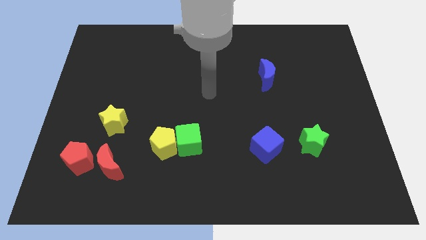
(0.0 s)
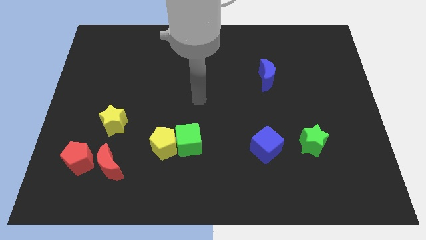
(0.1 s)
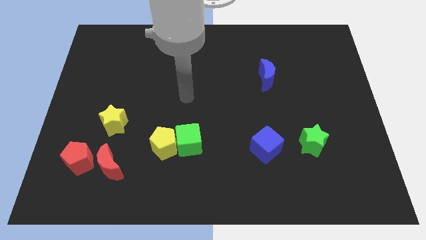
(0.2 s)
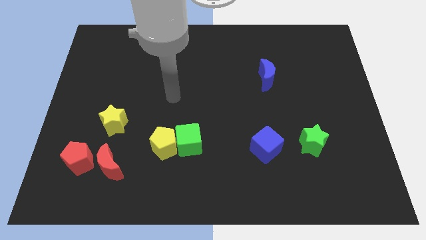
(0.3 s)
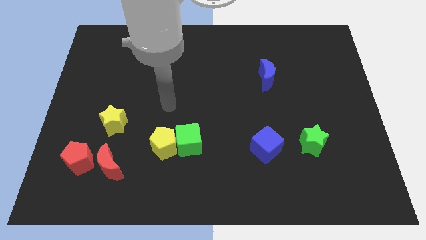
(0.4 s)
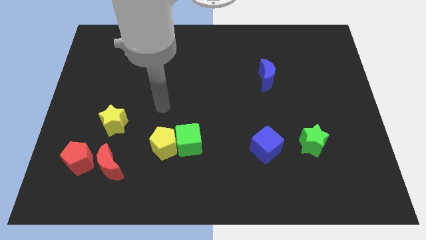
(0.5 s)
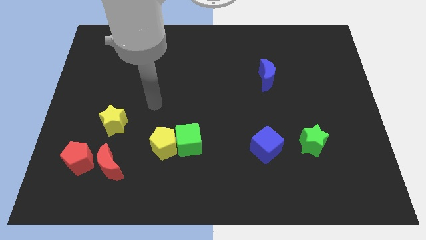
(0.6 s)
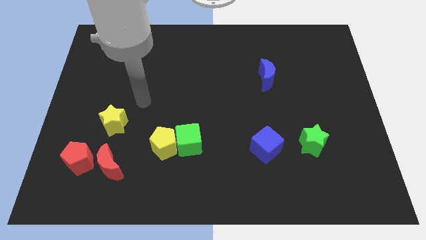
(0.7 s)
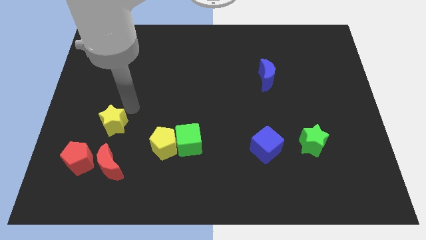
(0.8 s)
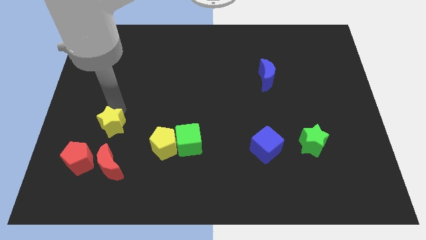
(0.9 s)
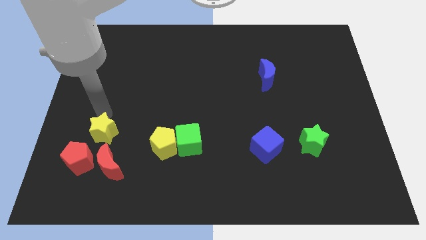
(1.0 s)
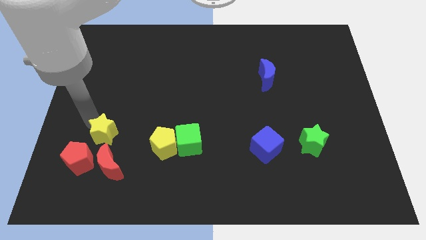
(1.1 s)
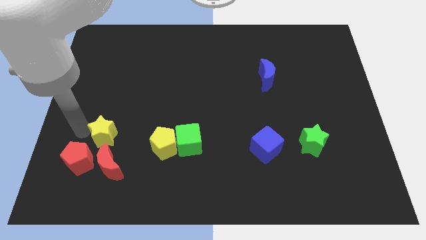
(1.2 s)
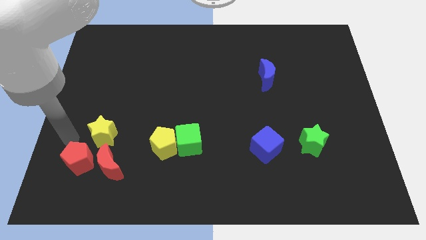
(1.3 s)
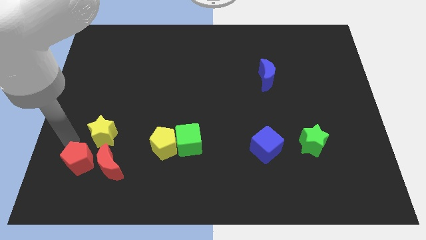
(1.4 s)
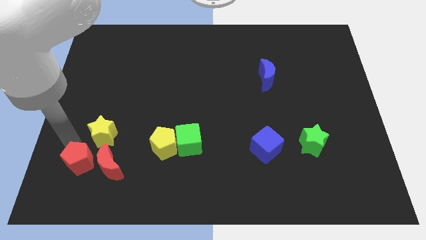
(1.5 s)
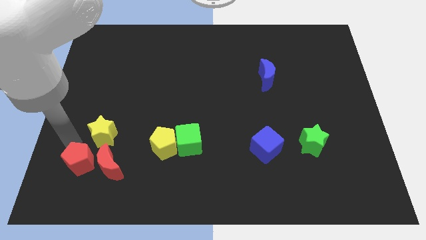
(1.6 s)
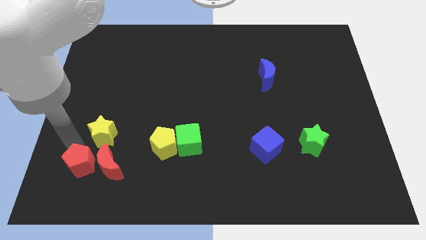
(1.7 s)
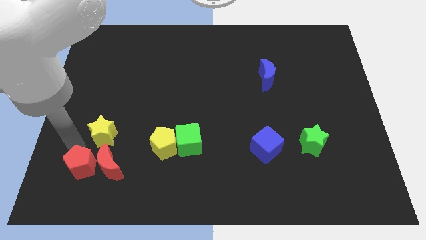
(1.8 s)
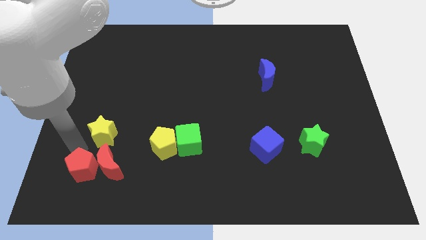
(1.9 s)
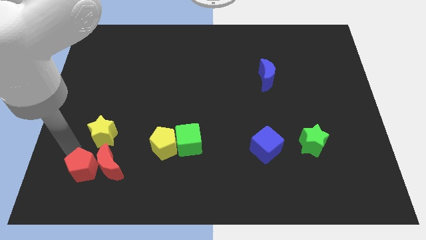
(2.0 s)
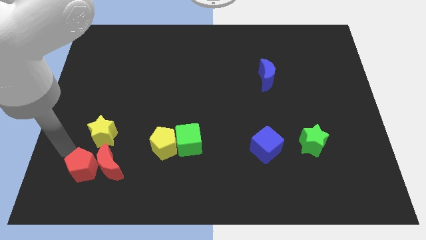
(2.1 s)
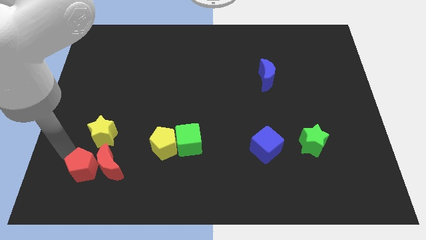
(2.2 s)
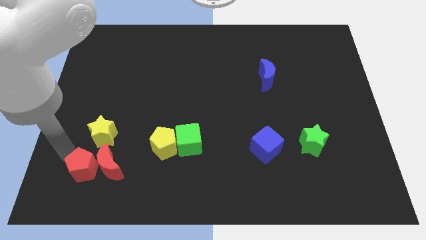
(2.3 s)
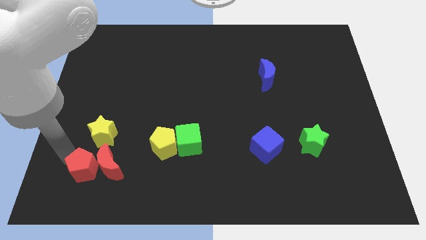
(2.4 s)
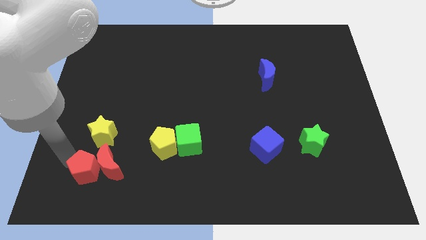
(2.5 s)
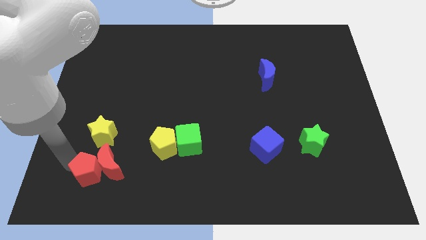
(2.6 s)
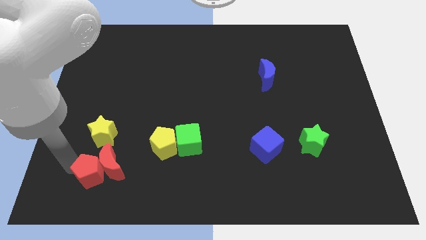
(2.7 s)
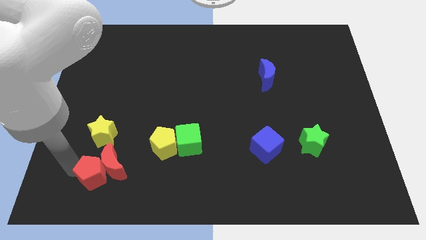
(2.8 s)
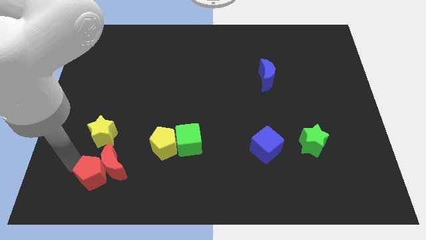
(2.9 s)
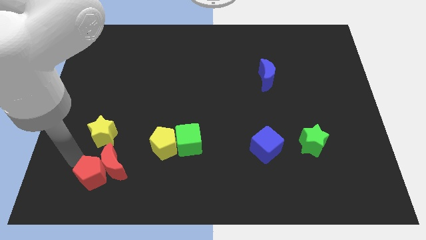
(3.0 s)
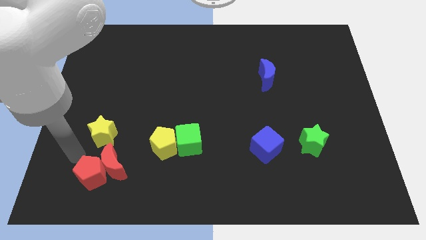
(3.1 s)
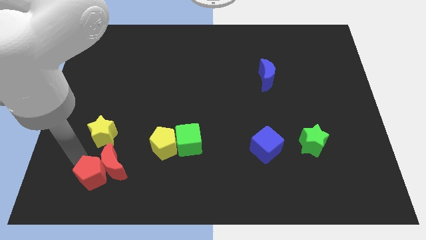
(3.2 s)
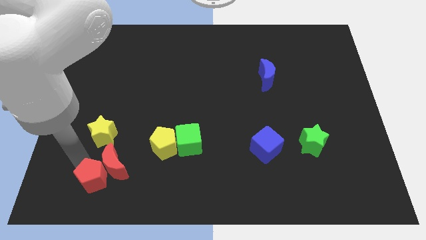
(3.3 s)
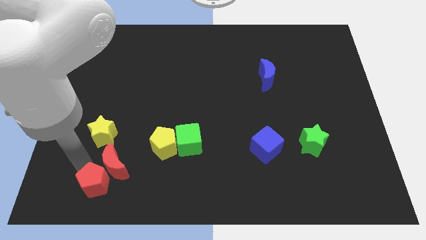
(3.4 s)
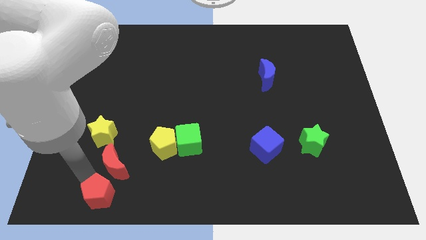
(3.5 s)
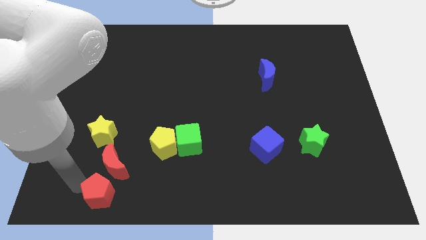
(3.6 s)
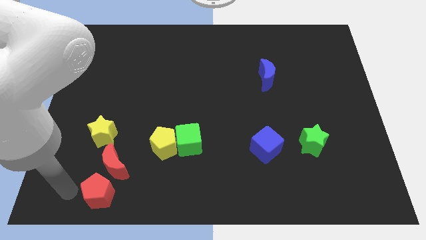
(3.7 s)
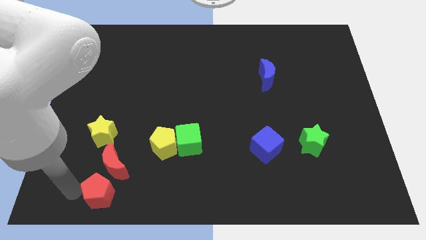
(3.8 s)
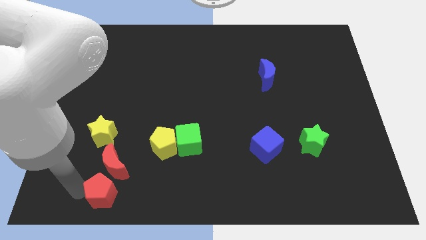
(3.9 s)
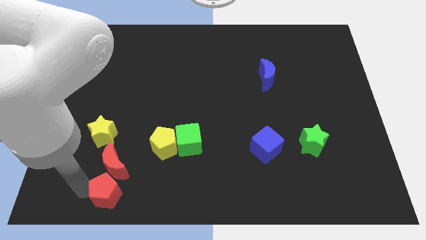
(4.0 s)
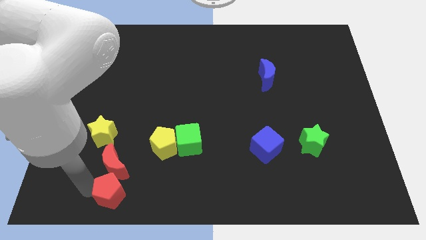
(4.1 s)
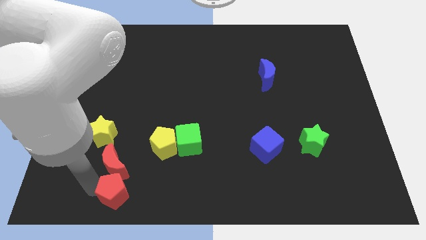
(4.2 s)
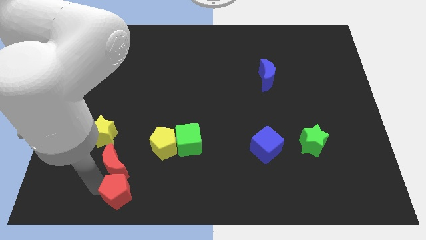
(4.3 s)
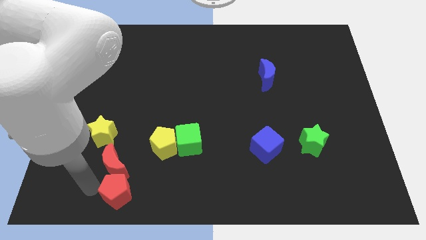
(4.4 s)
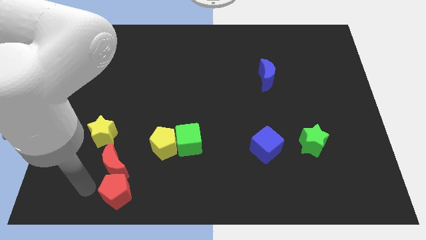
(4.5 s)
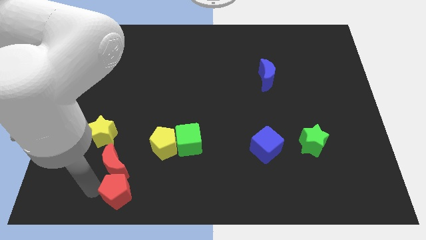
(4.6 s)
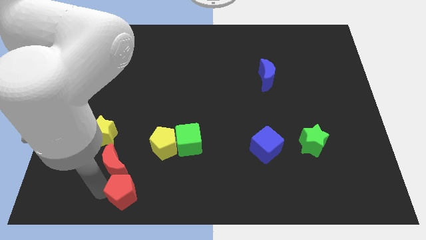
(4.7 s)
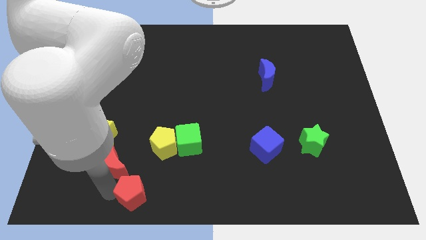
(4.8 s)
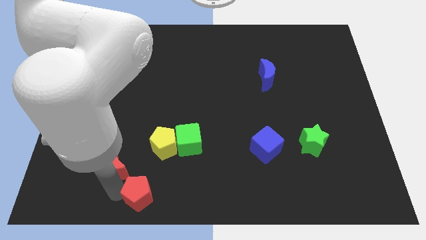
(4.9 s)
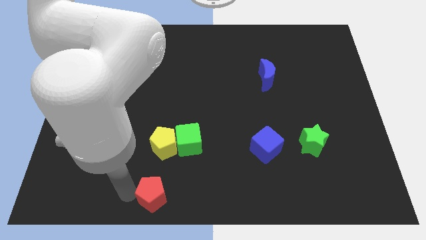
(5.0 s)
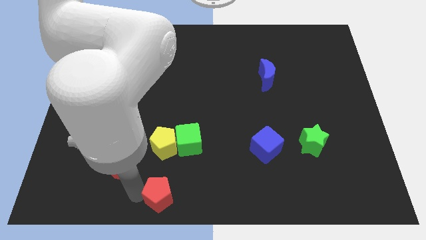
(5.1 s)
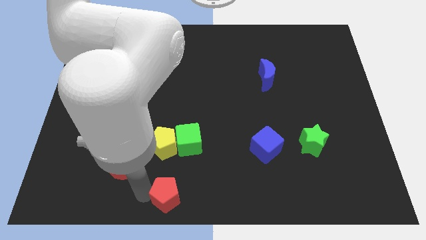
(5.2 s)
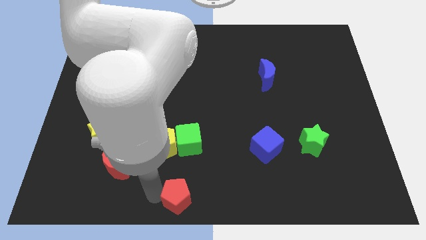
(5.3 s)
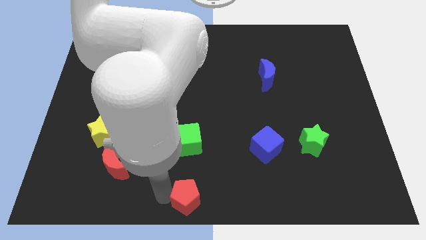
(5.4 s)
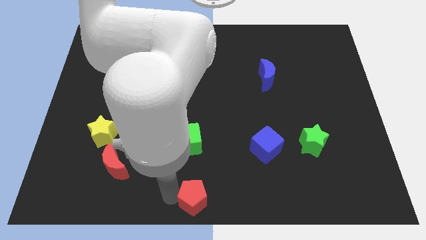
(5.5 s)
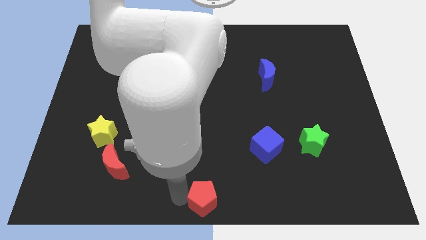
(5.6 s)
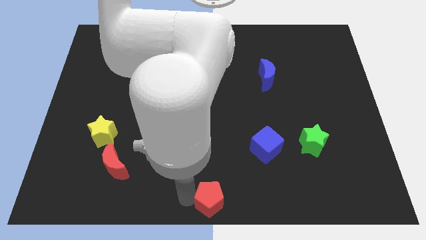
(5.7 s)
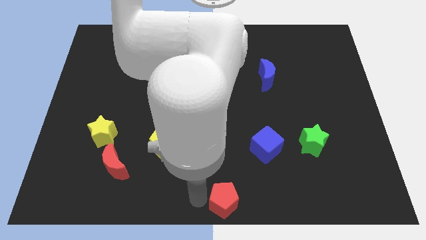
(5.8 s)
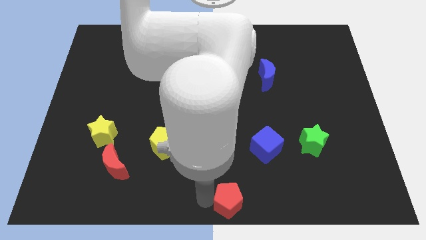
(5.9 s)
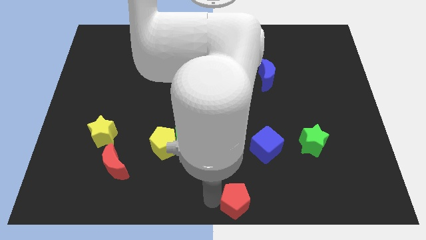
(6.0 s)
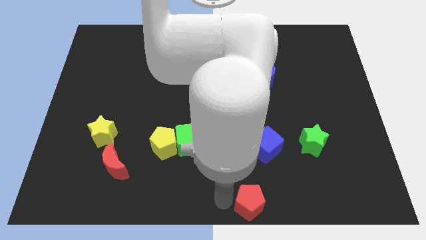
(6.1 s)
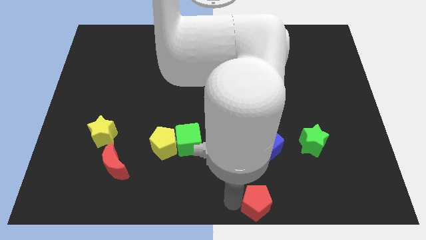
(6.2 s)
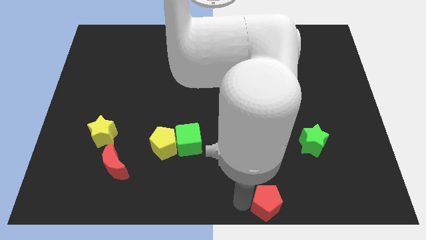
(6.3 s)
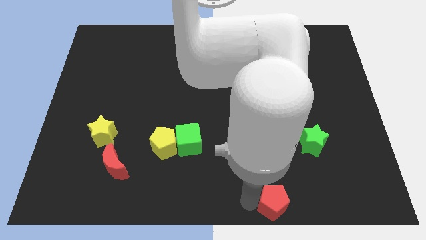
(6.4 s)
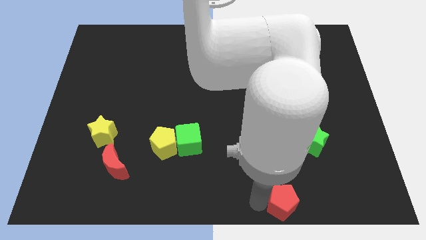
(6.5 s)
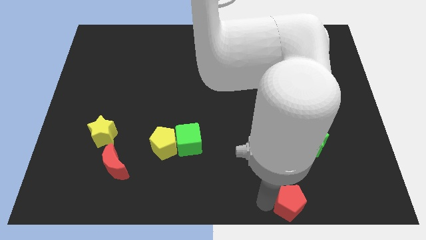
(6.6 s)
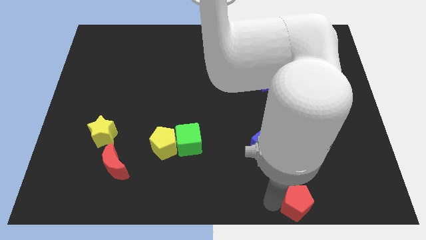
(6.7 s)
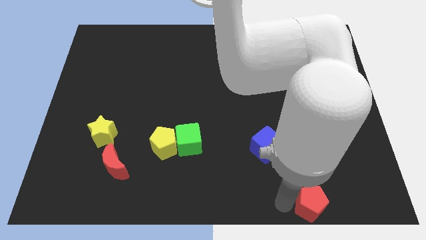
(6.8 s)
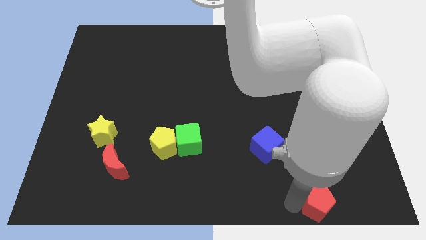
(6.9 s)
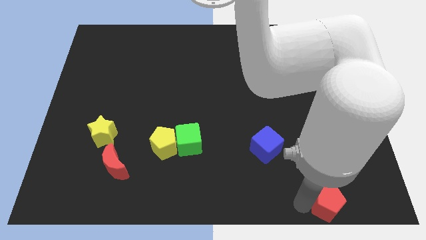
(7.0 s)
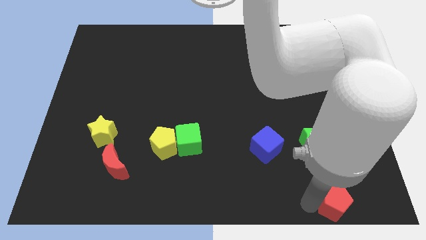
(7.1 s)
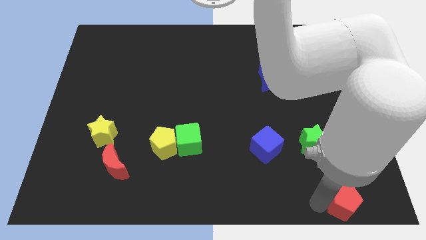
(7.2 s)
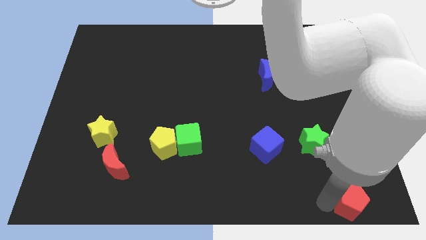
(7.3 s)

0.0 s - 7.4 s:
slide the red pentagon to the bottom right corner
